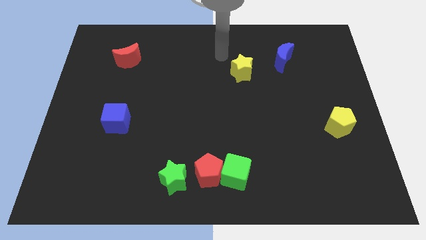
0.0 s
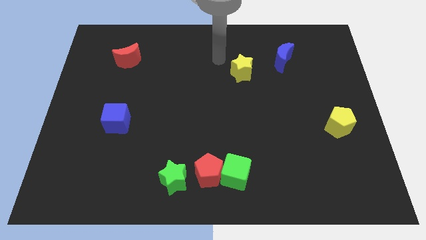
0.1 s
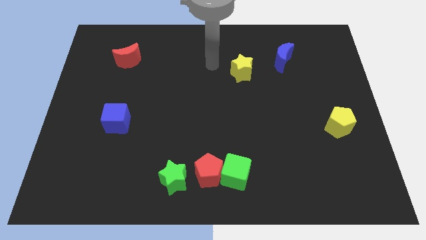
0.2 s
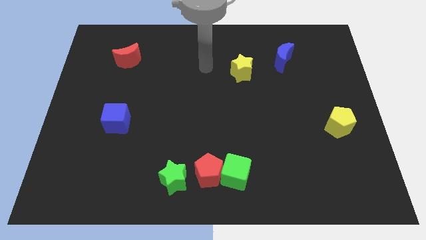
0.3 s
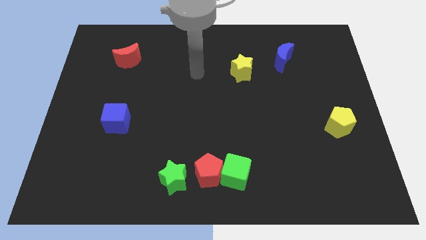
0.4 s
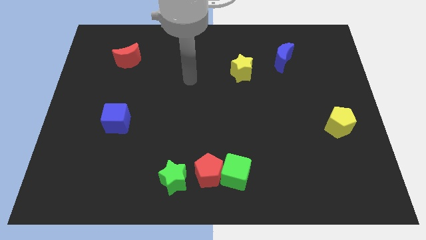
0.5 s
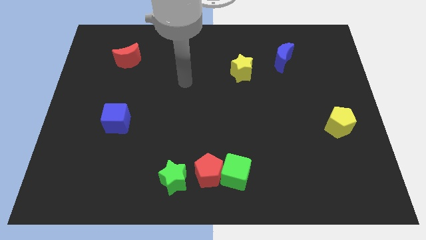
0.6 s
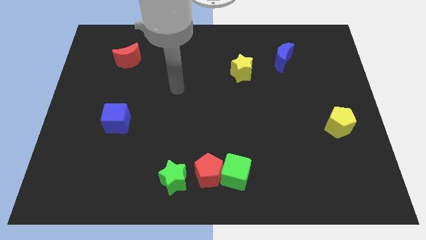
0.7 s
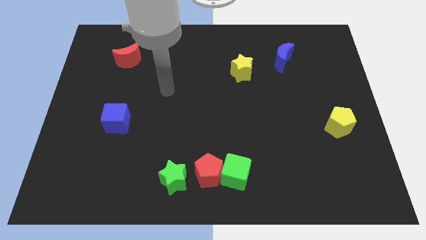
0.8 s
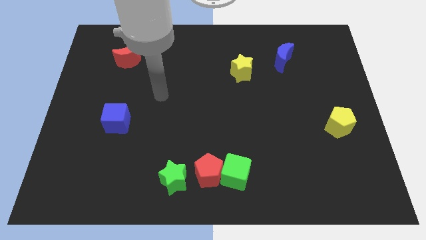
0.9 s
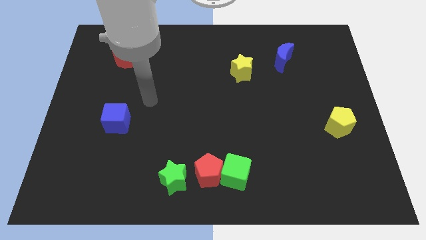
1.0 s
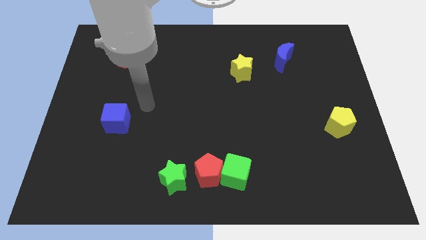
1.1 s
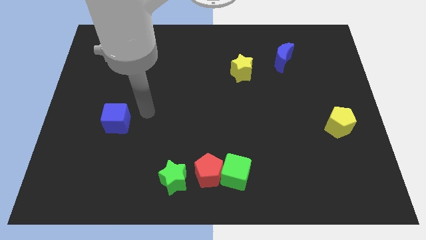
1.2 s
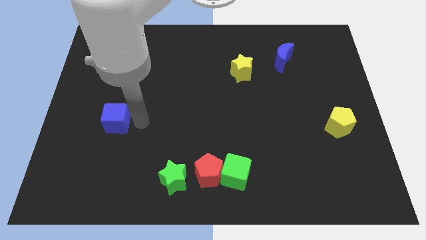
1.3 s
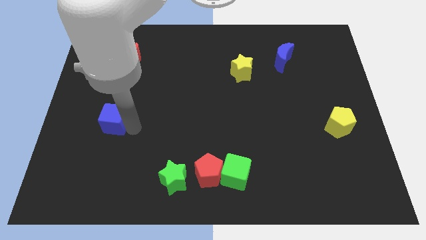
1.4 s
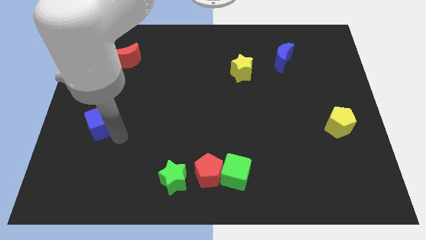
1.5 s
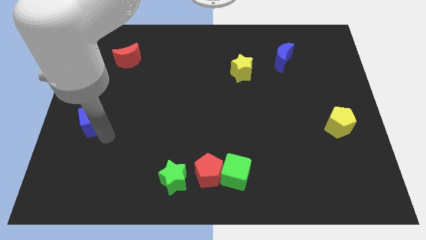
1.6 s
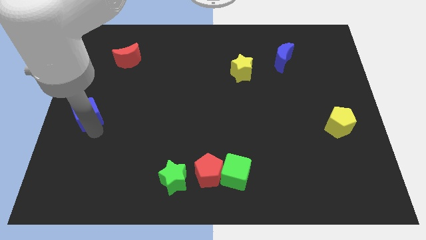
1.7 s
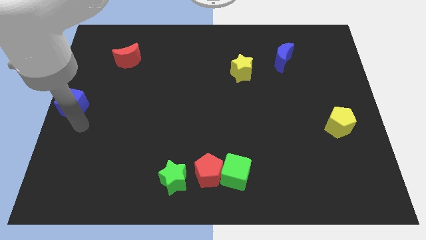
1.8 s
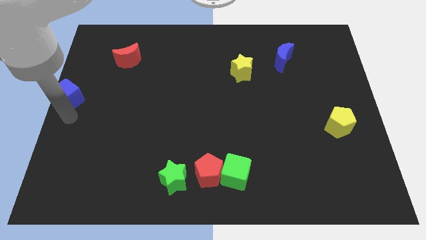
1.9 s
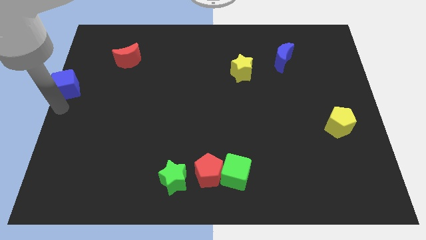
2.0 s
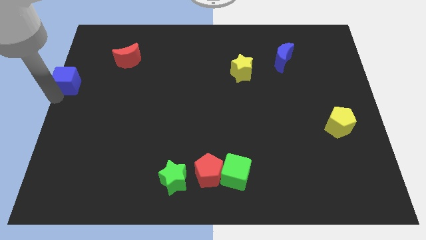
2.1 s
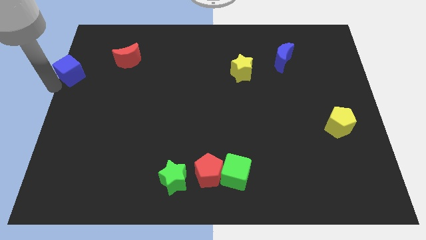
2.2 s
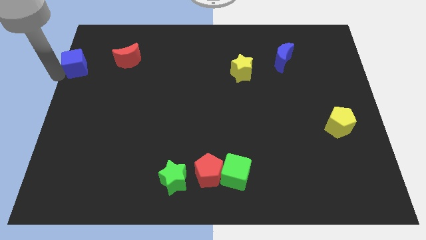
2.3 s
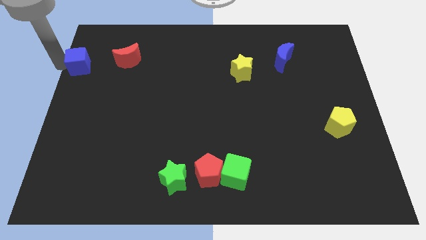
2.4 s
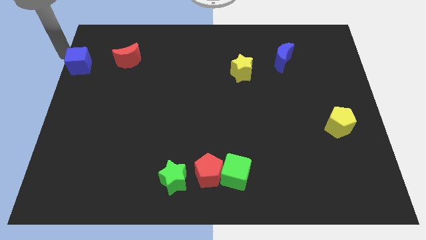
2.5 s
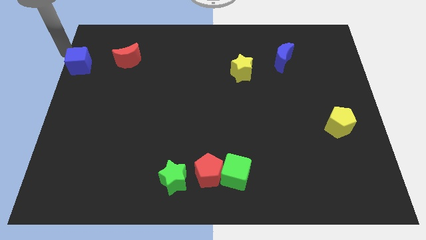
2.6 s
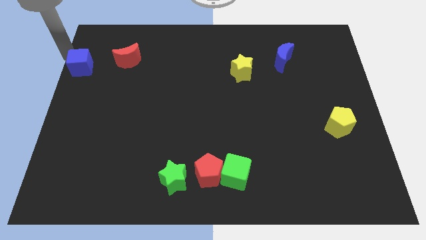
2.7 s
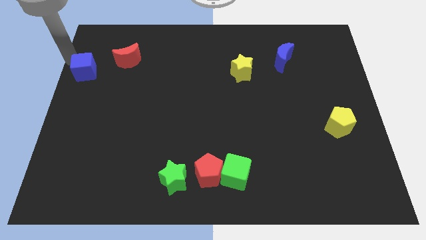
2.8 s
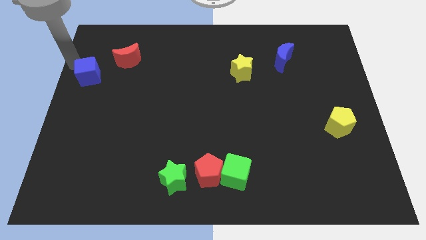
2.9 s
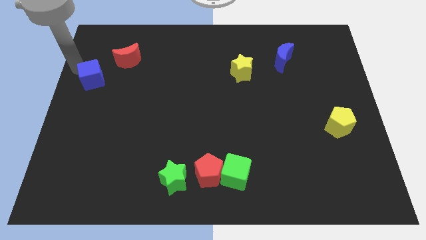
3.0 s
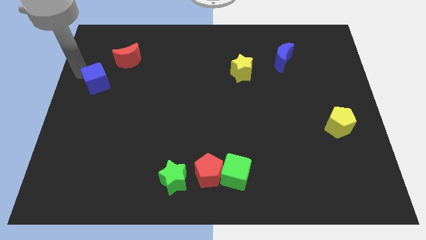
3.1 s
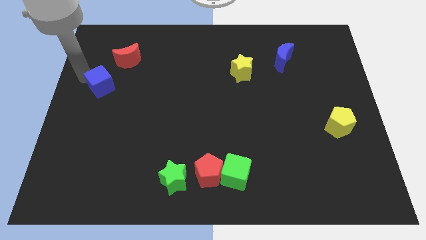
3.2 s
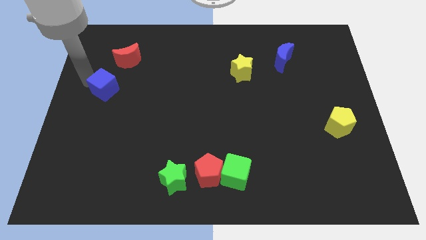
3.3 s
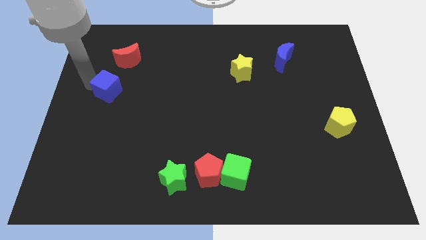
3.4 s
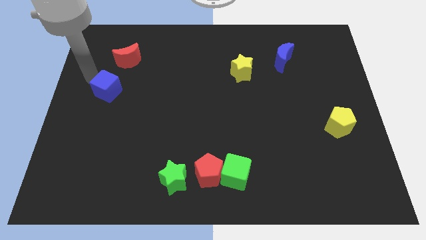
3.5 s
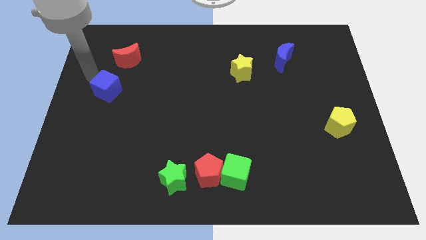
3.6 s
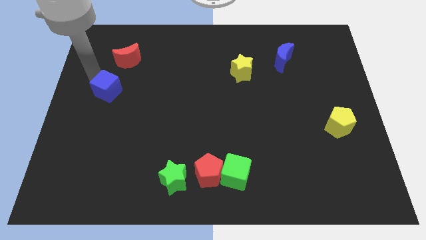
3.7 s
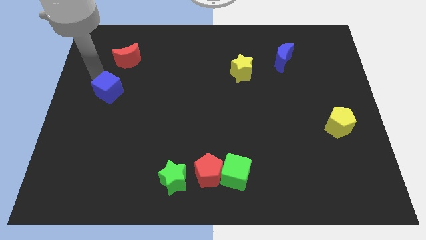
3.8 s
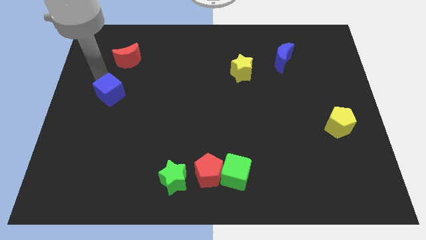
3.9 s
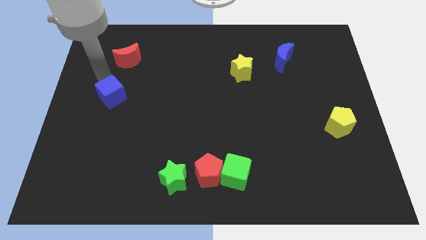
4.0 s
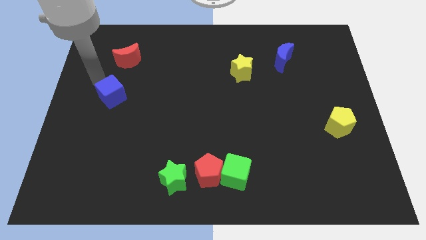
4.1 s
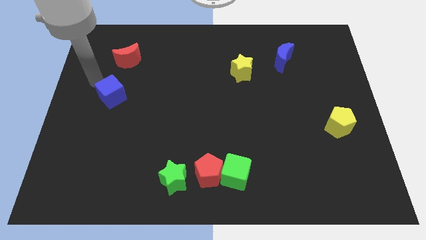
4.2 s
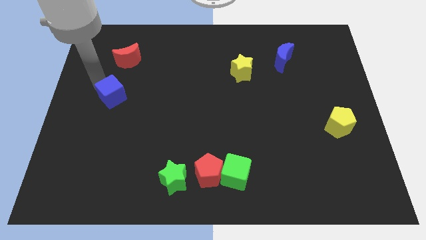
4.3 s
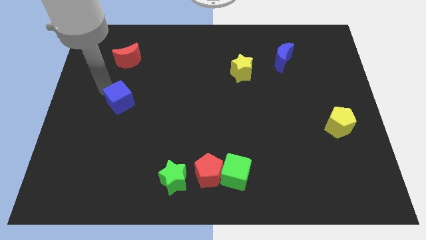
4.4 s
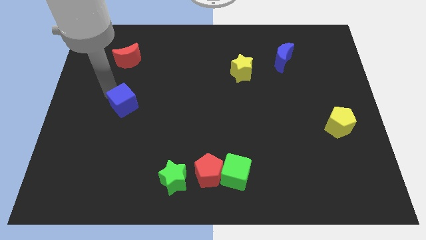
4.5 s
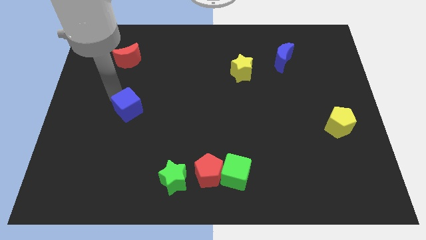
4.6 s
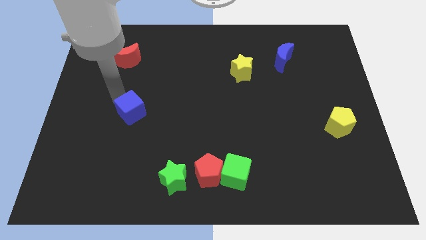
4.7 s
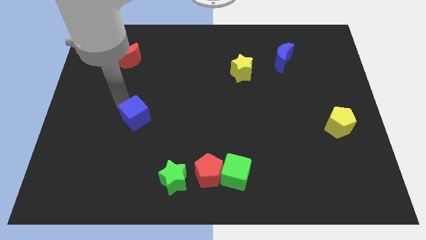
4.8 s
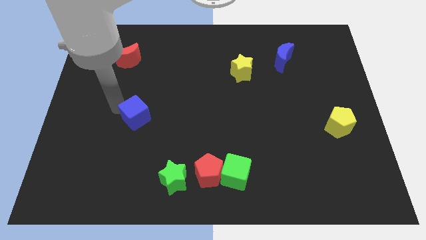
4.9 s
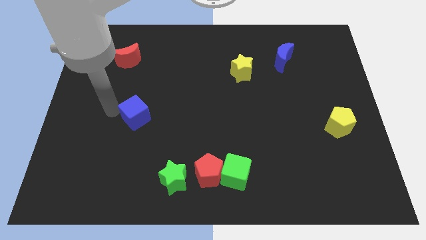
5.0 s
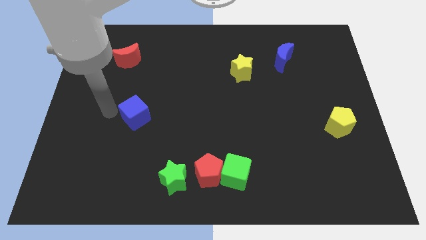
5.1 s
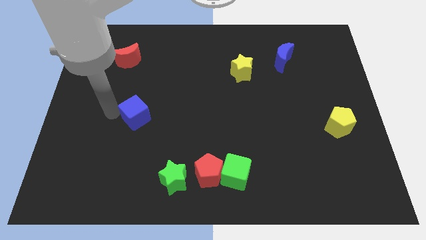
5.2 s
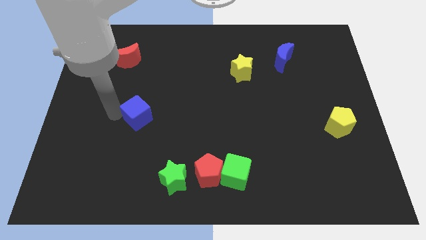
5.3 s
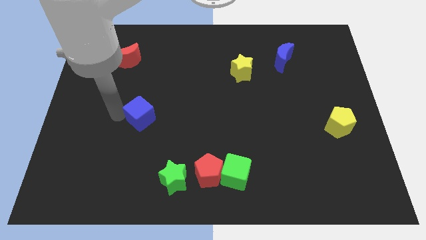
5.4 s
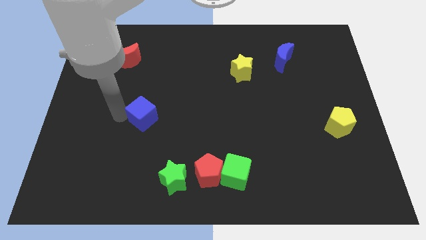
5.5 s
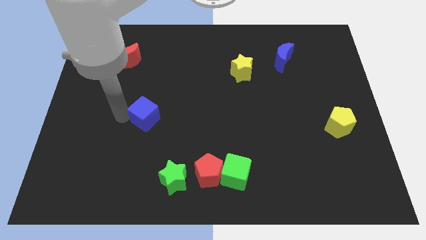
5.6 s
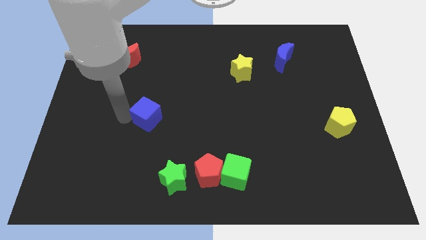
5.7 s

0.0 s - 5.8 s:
push the blue cube right a little

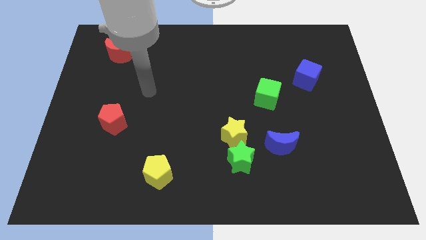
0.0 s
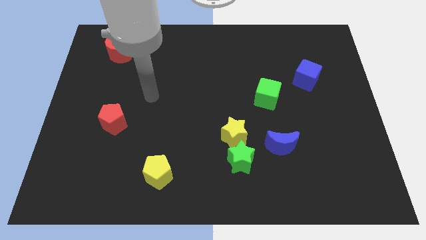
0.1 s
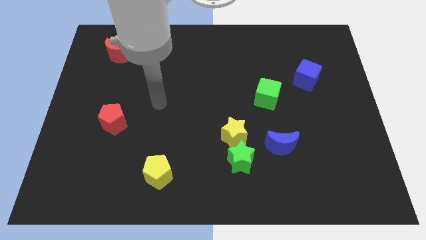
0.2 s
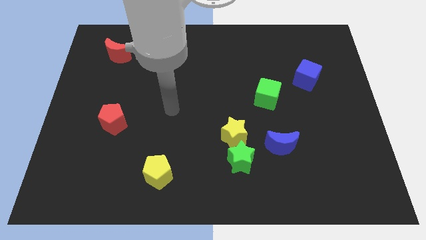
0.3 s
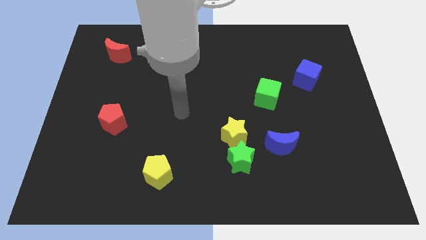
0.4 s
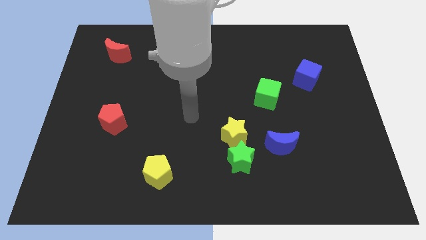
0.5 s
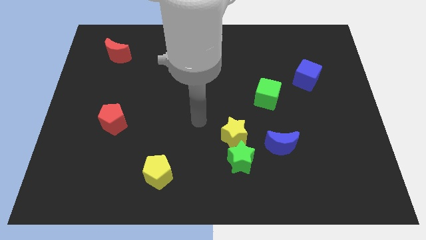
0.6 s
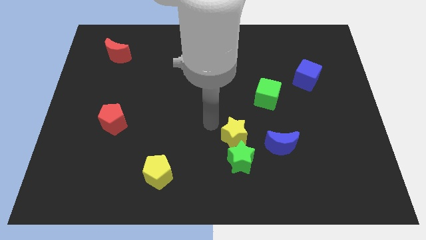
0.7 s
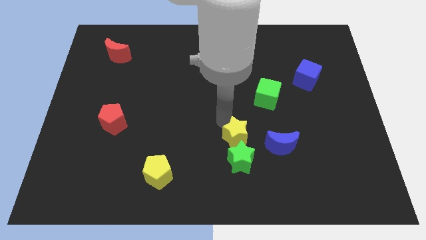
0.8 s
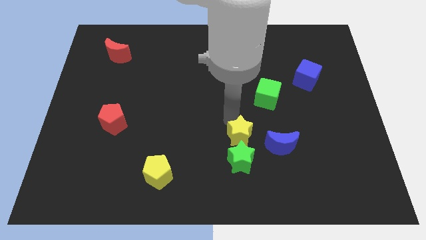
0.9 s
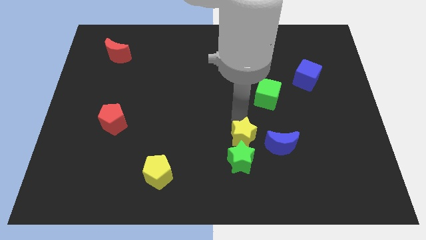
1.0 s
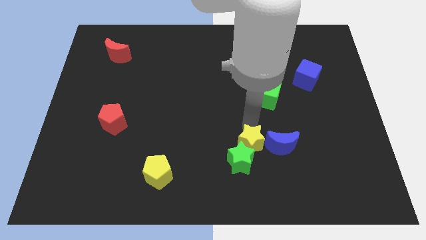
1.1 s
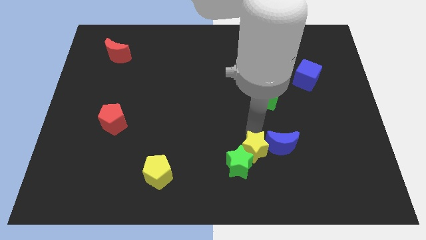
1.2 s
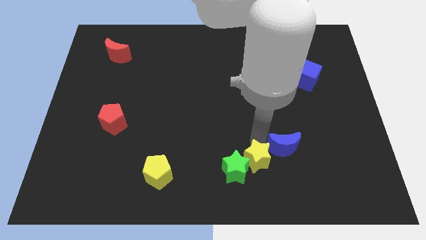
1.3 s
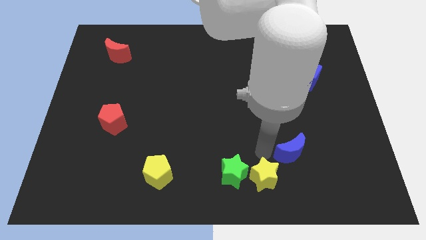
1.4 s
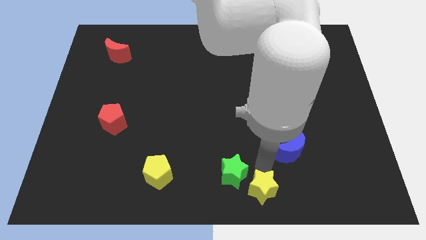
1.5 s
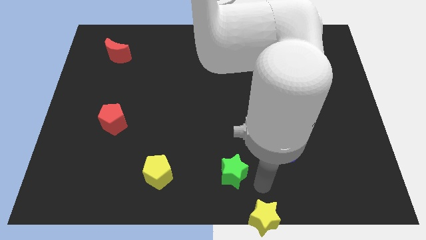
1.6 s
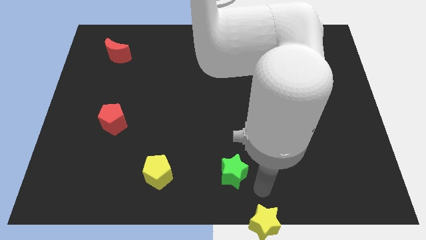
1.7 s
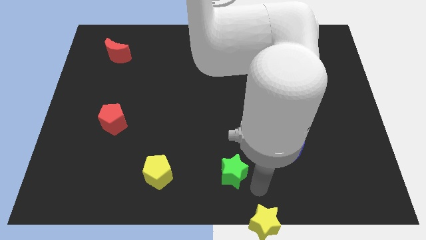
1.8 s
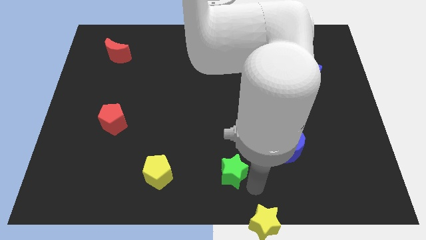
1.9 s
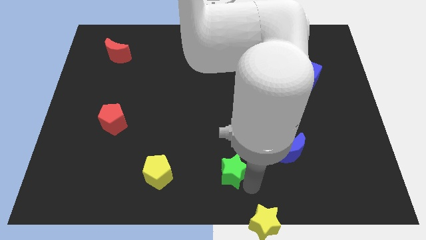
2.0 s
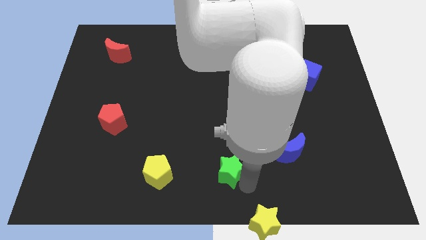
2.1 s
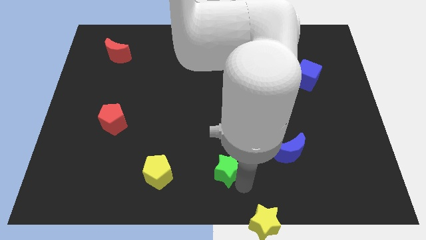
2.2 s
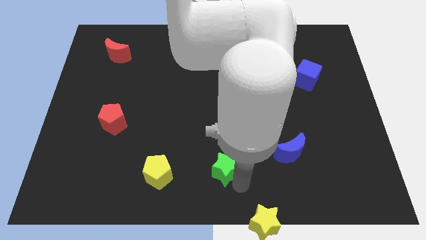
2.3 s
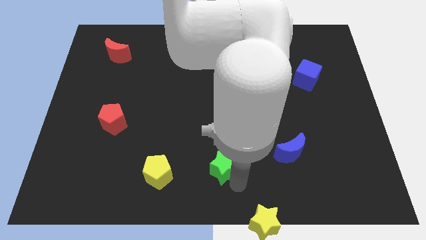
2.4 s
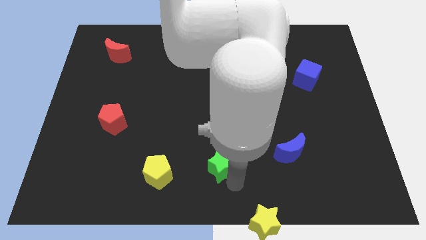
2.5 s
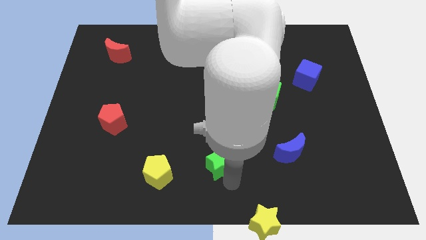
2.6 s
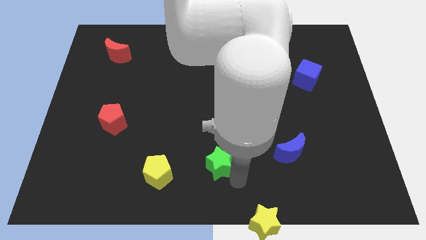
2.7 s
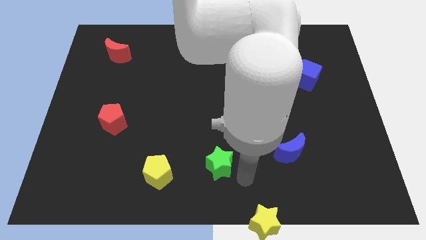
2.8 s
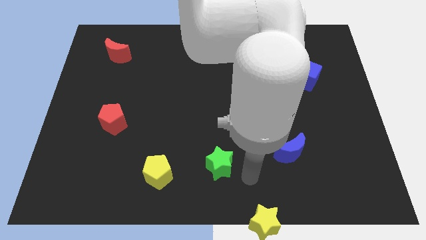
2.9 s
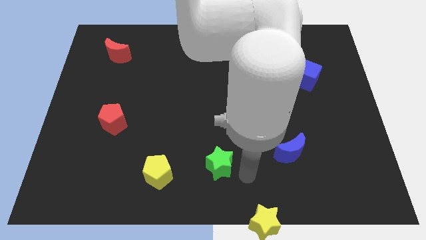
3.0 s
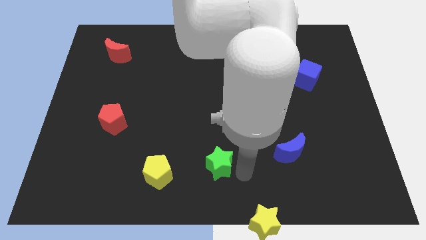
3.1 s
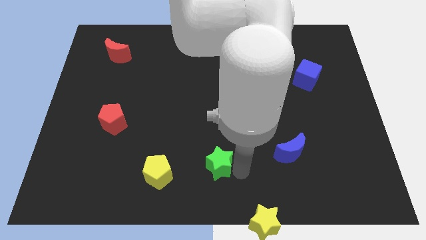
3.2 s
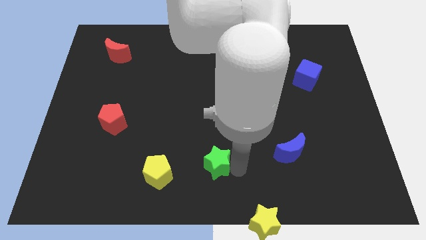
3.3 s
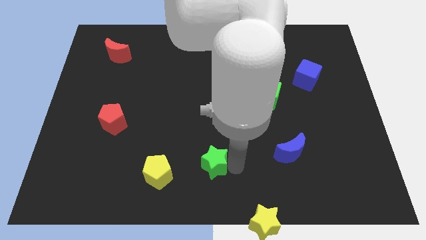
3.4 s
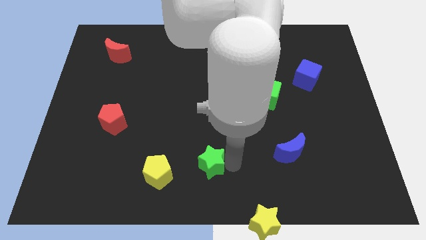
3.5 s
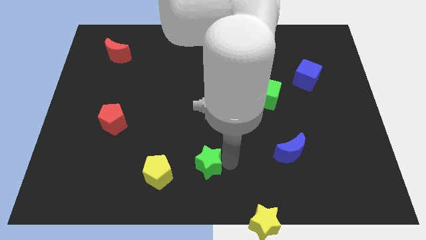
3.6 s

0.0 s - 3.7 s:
slide the green star a little to the left
